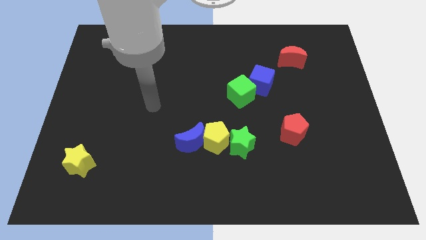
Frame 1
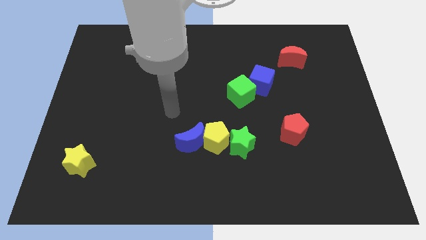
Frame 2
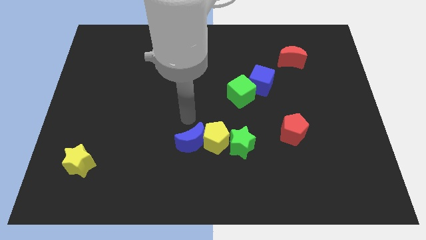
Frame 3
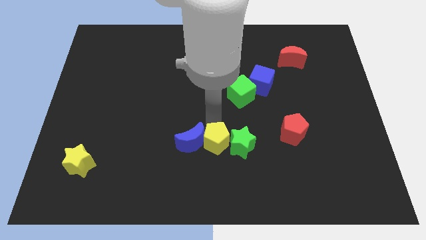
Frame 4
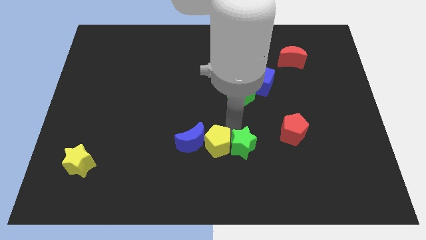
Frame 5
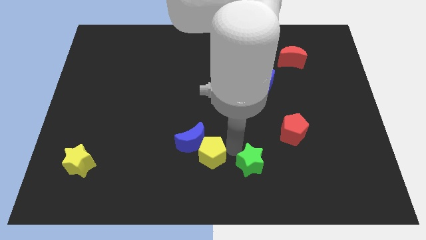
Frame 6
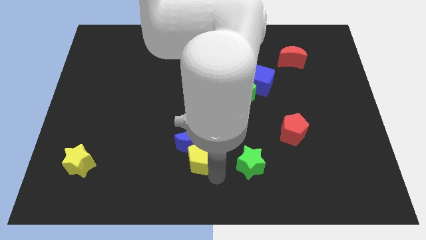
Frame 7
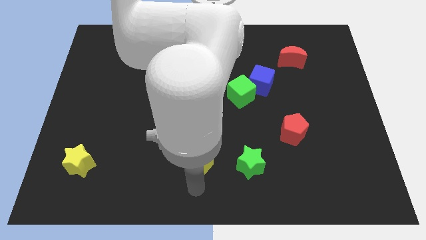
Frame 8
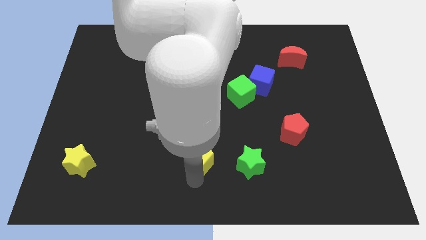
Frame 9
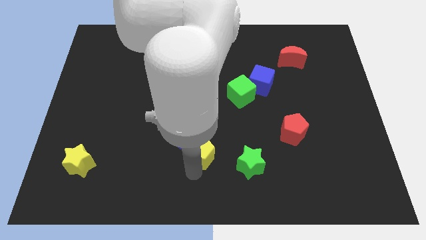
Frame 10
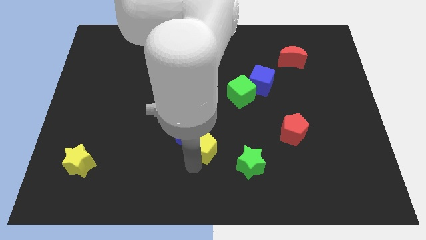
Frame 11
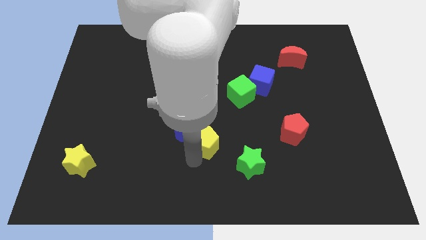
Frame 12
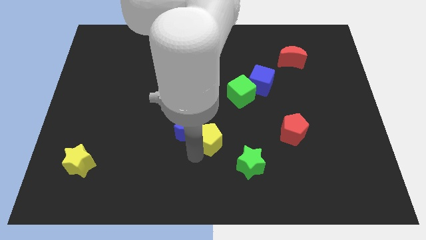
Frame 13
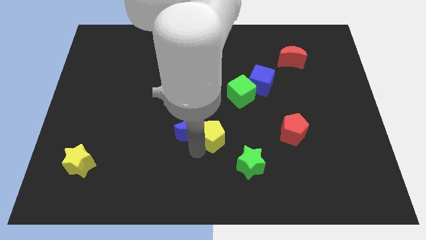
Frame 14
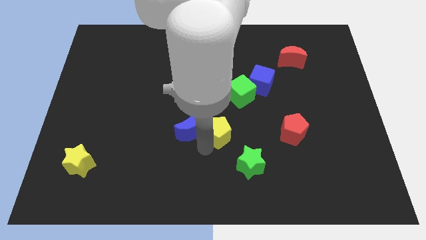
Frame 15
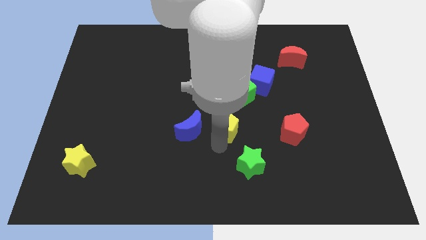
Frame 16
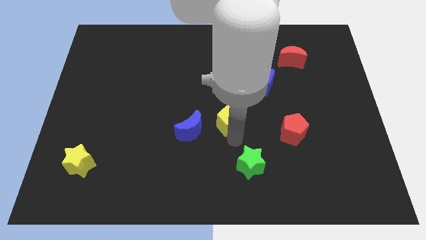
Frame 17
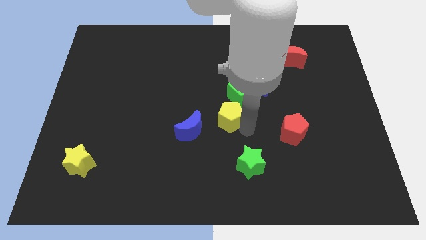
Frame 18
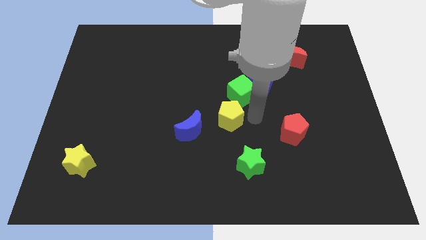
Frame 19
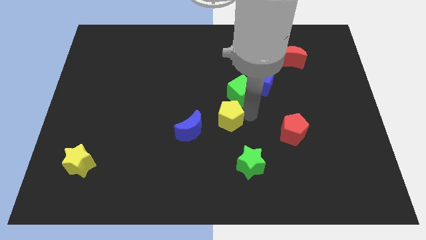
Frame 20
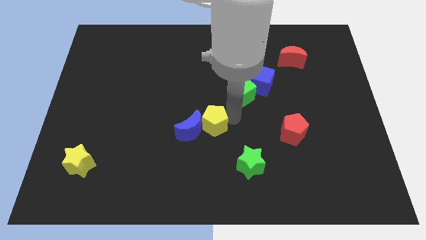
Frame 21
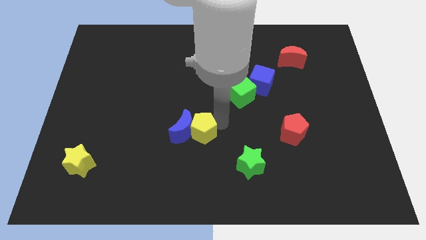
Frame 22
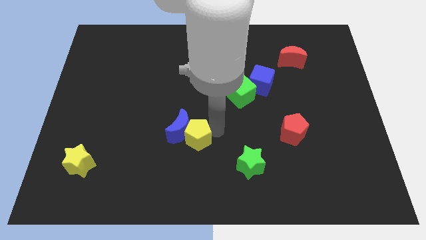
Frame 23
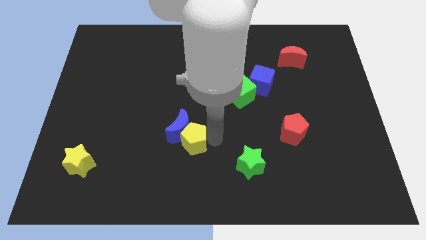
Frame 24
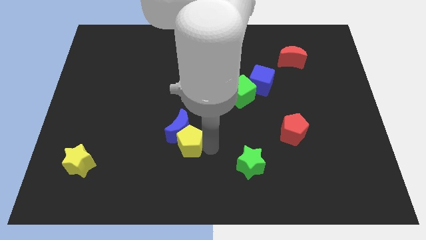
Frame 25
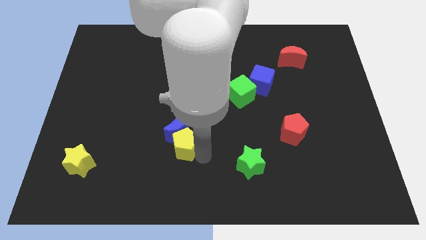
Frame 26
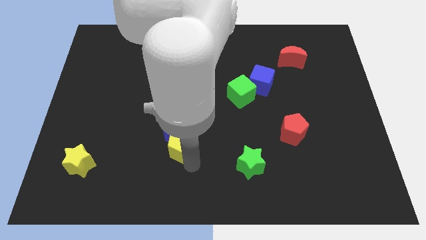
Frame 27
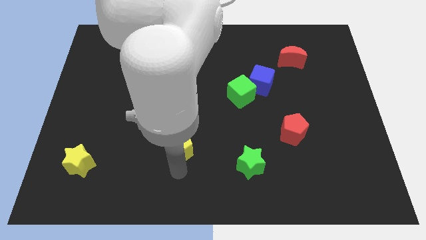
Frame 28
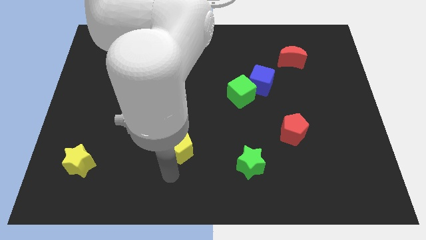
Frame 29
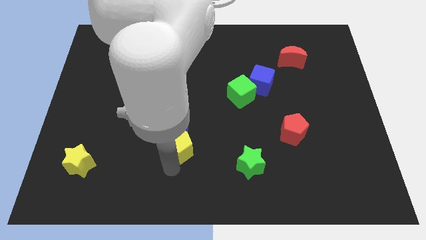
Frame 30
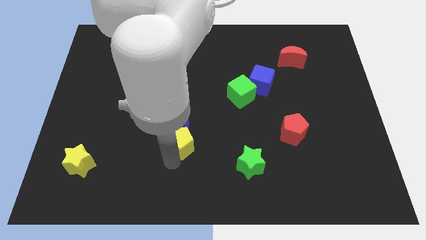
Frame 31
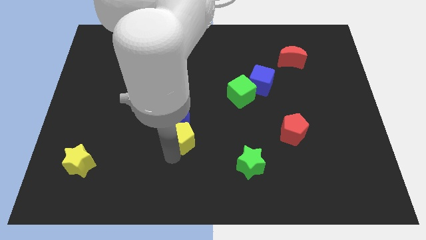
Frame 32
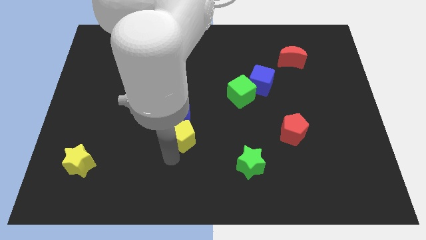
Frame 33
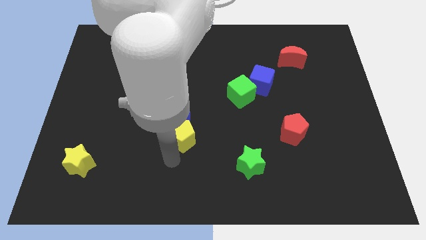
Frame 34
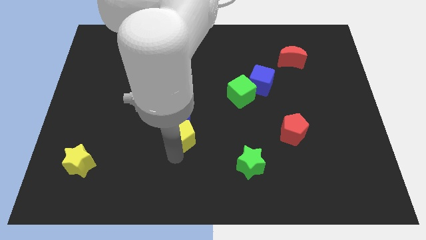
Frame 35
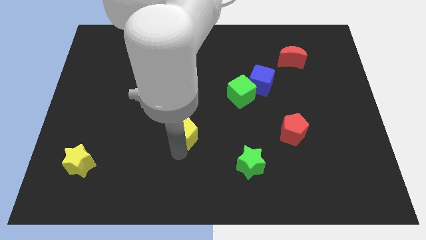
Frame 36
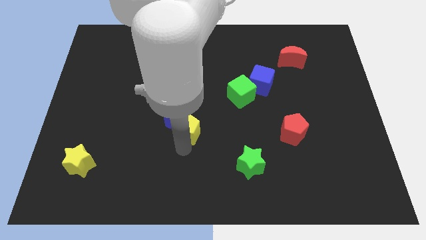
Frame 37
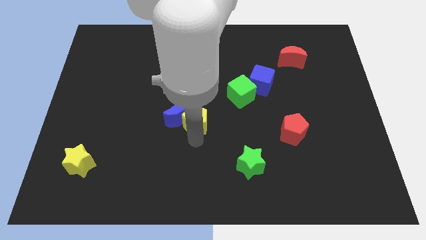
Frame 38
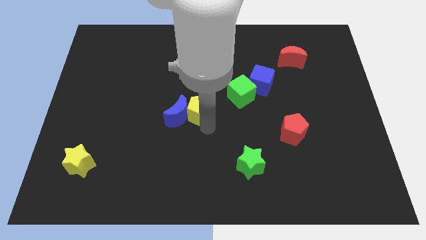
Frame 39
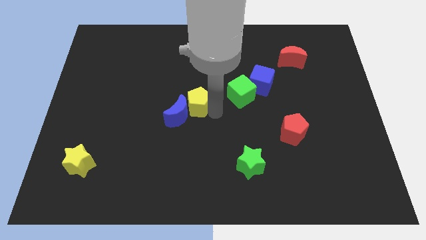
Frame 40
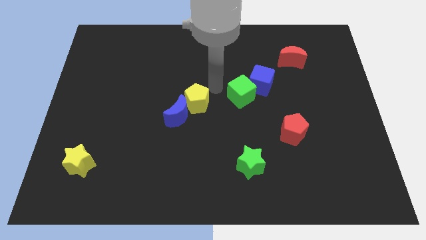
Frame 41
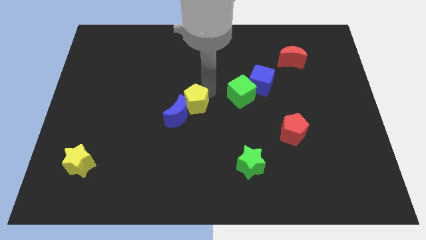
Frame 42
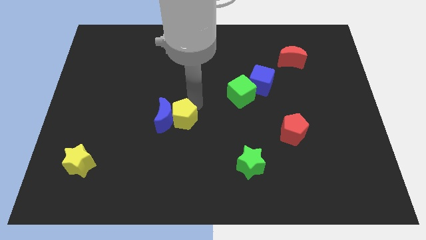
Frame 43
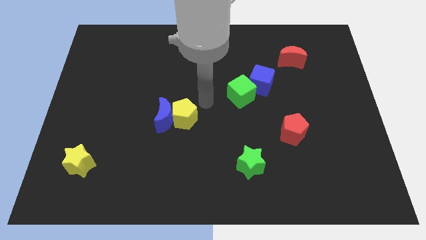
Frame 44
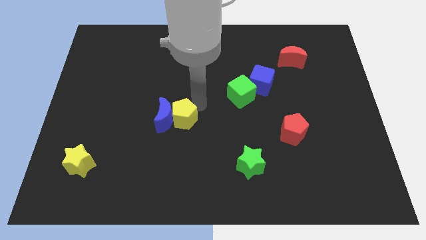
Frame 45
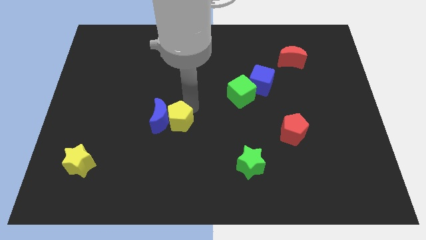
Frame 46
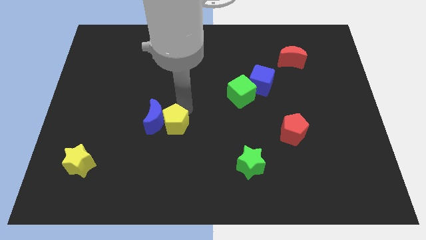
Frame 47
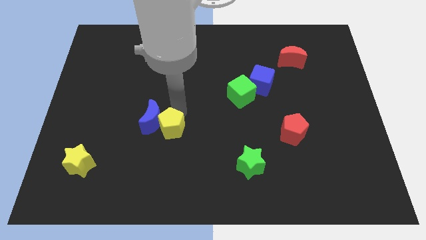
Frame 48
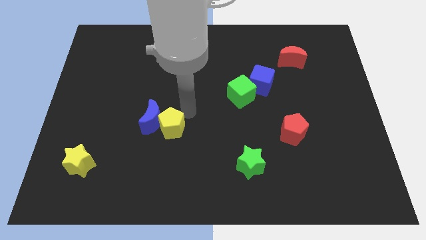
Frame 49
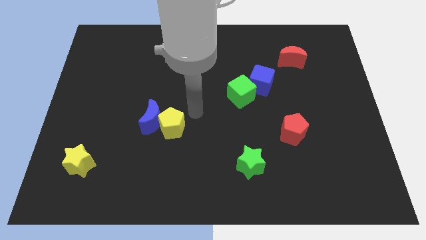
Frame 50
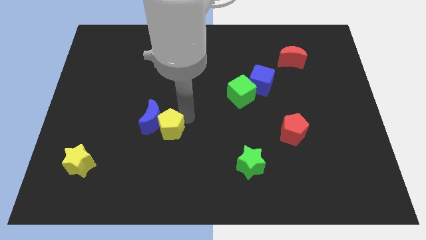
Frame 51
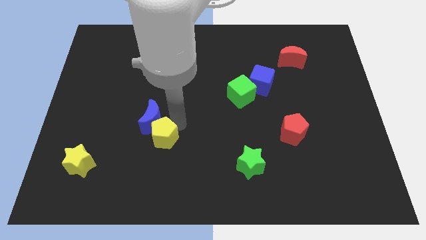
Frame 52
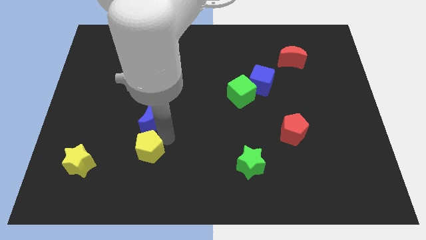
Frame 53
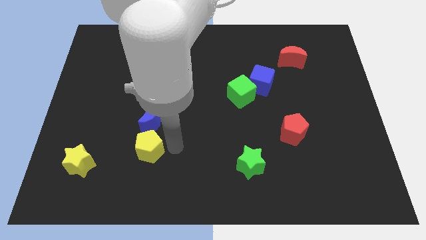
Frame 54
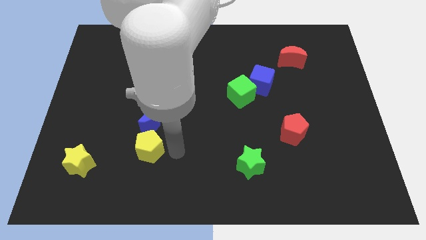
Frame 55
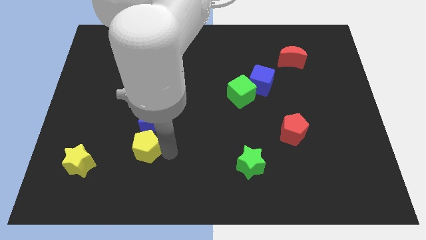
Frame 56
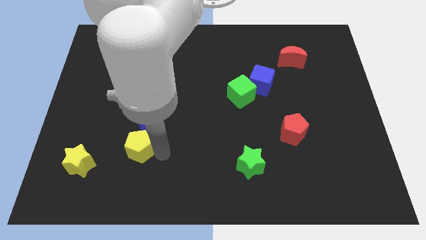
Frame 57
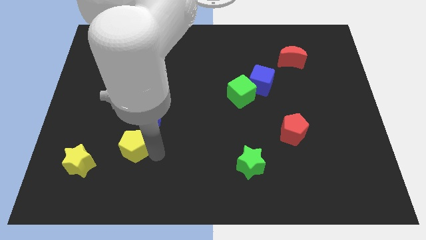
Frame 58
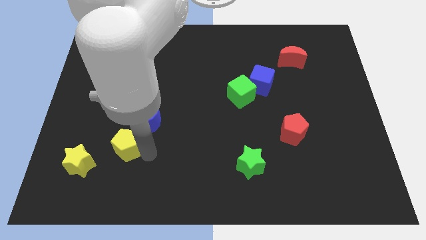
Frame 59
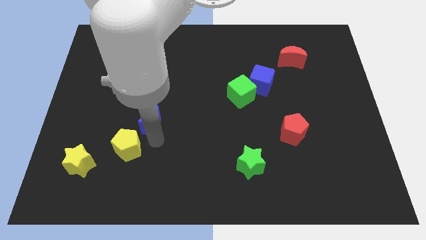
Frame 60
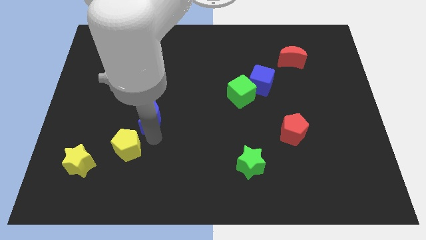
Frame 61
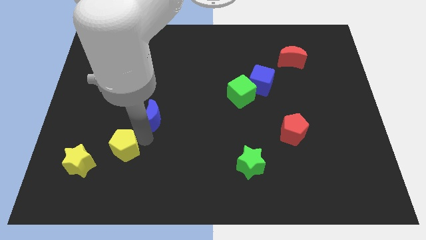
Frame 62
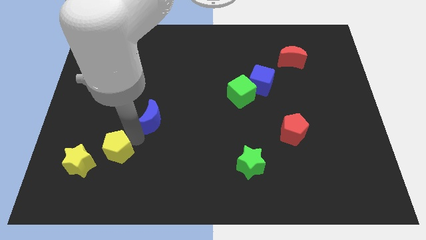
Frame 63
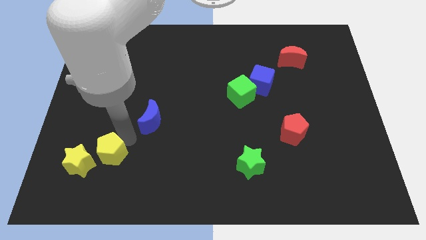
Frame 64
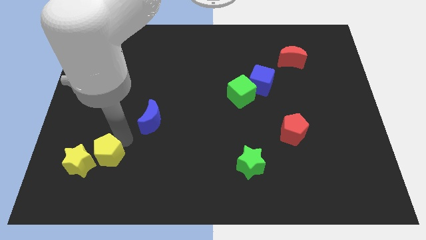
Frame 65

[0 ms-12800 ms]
move the yellow pentagon close to the yellow star
